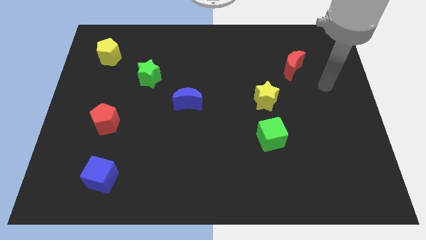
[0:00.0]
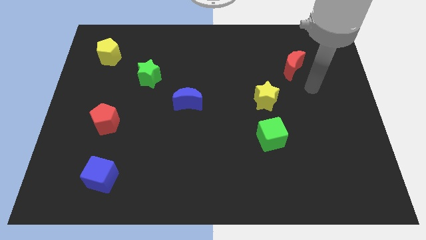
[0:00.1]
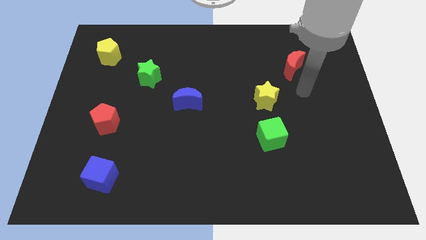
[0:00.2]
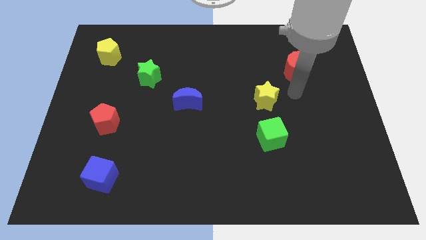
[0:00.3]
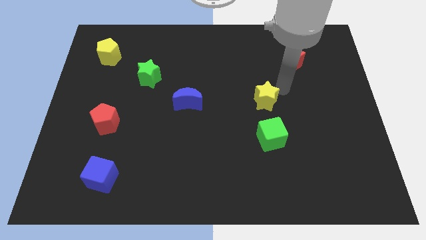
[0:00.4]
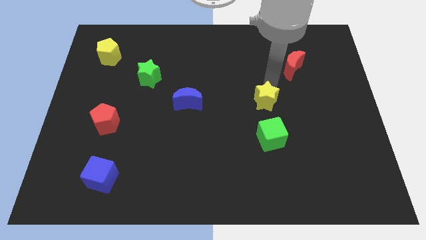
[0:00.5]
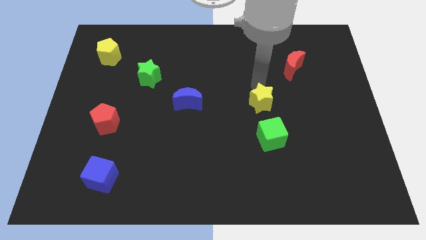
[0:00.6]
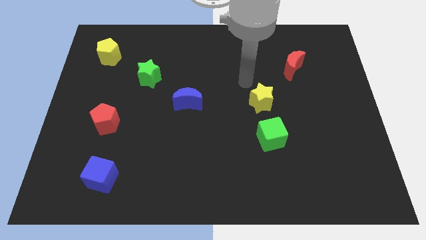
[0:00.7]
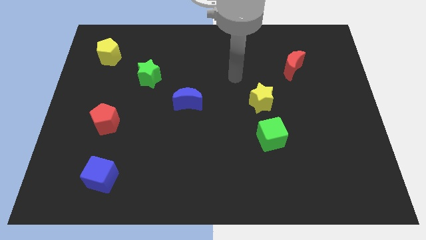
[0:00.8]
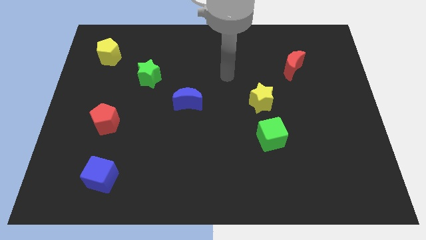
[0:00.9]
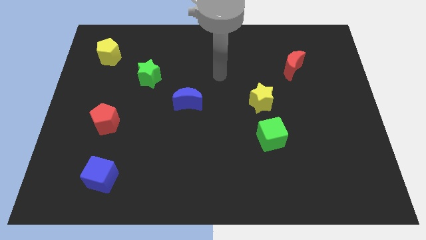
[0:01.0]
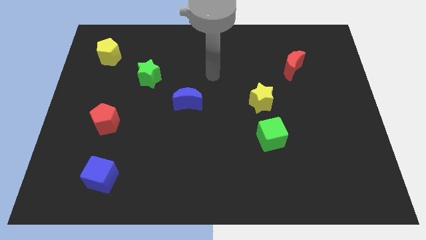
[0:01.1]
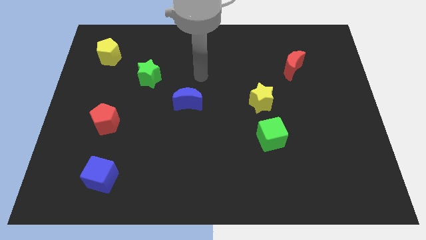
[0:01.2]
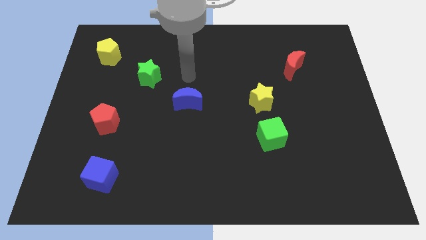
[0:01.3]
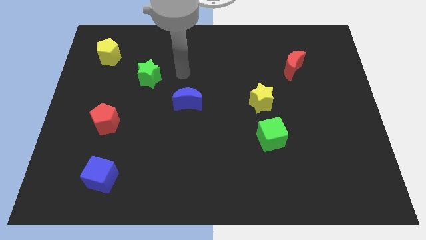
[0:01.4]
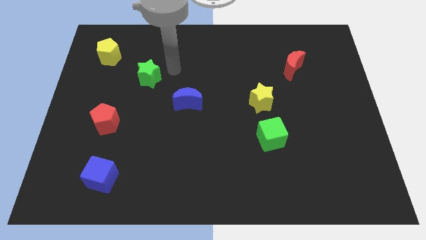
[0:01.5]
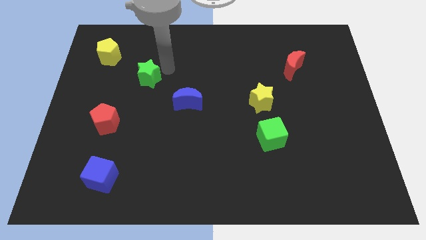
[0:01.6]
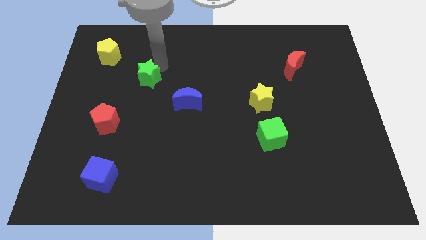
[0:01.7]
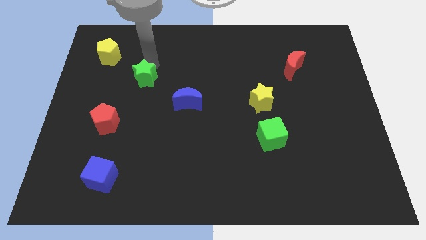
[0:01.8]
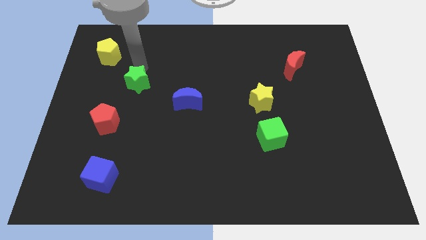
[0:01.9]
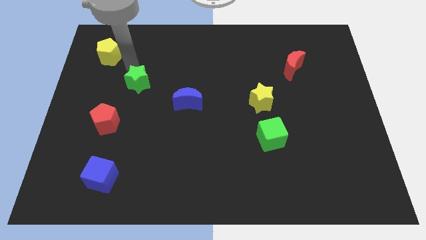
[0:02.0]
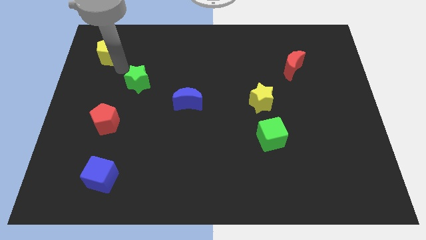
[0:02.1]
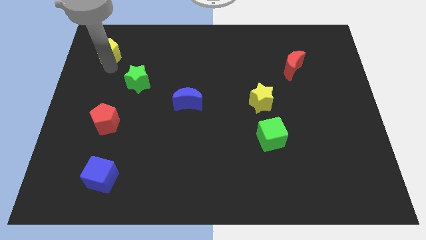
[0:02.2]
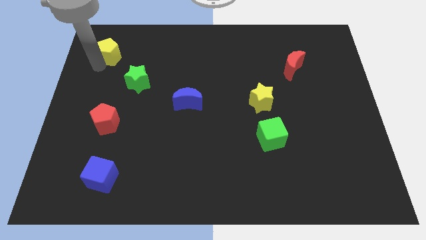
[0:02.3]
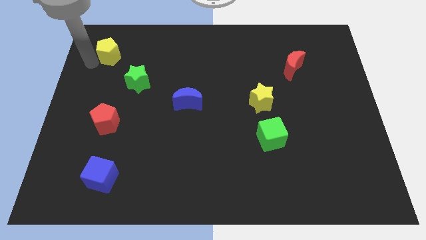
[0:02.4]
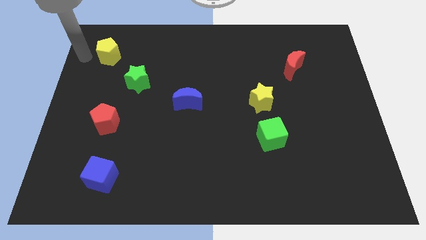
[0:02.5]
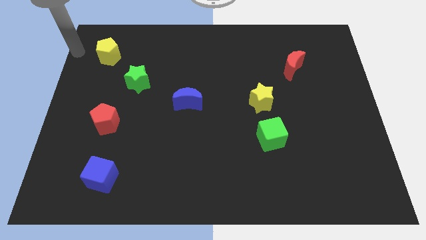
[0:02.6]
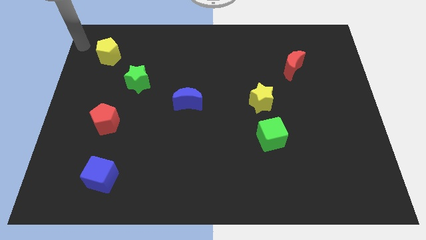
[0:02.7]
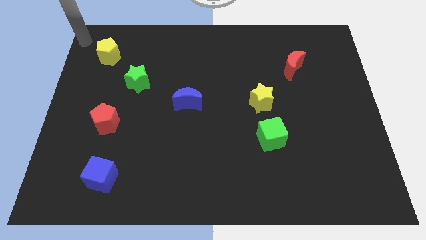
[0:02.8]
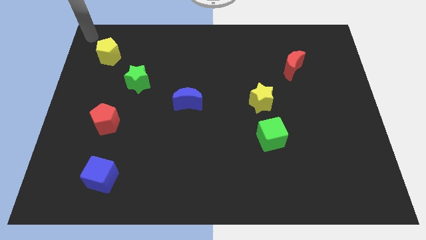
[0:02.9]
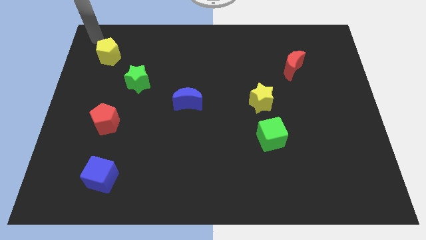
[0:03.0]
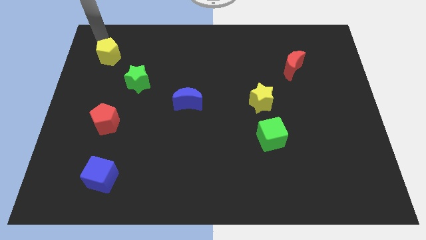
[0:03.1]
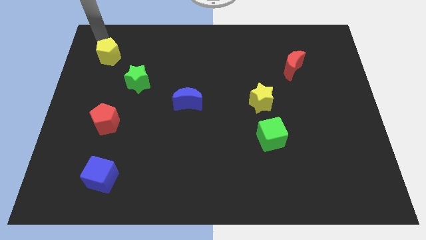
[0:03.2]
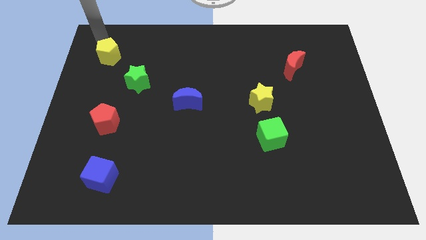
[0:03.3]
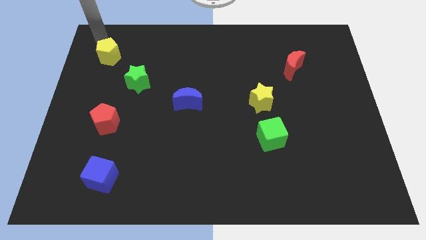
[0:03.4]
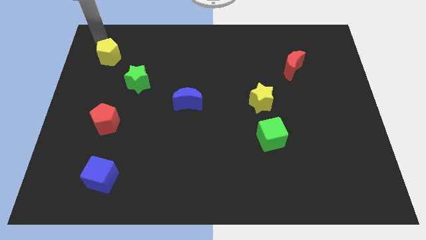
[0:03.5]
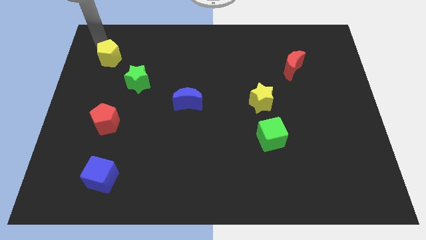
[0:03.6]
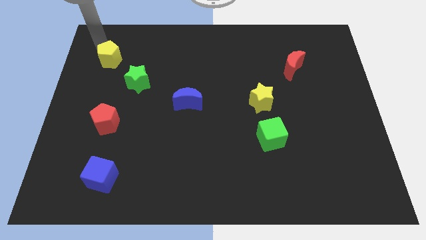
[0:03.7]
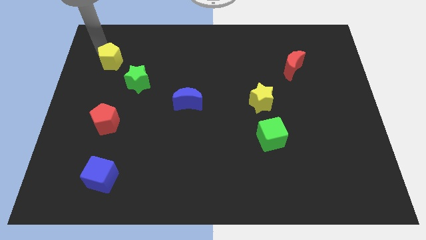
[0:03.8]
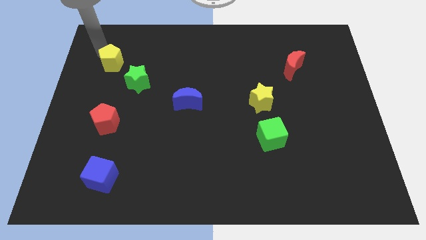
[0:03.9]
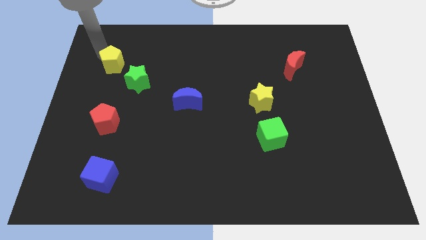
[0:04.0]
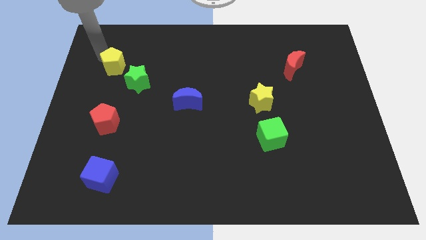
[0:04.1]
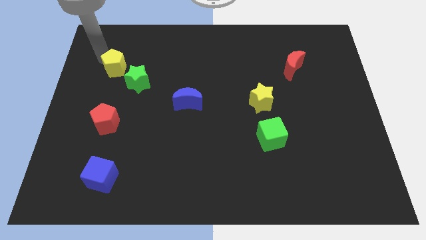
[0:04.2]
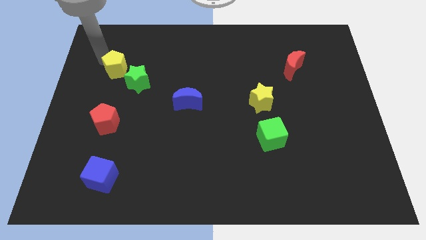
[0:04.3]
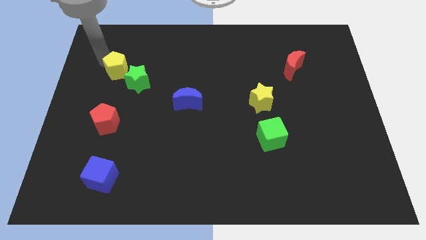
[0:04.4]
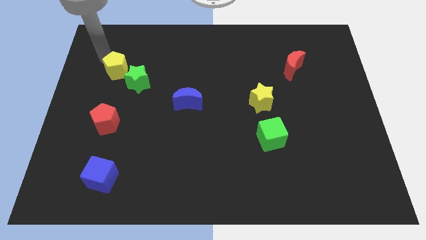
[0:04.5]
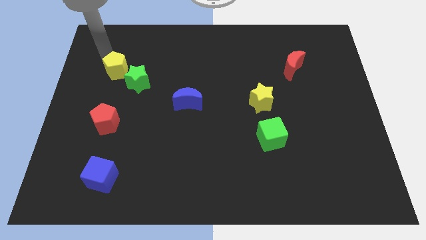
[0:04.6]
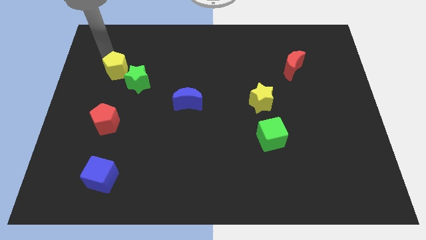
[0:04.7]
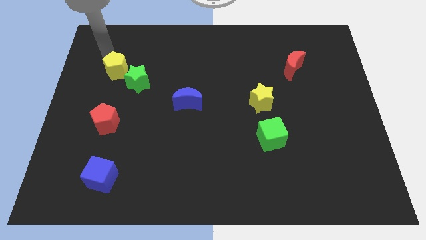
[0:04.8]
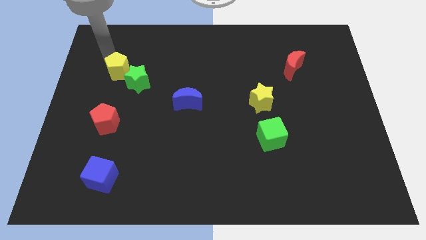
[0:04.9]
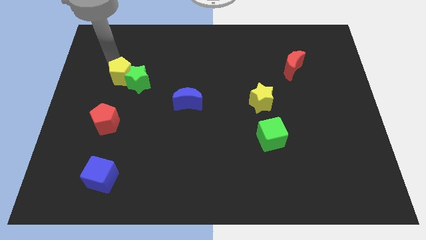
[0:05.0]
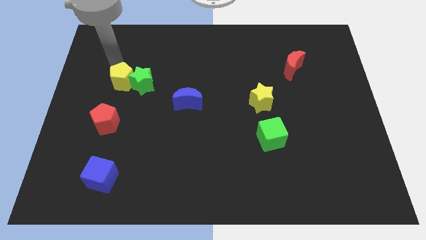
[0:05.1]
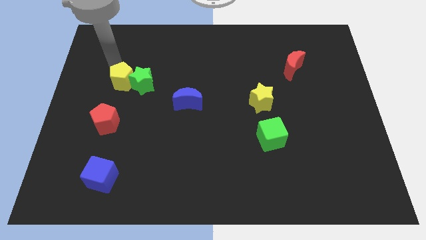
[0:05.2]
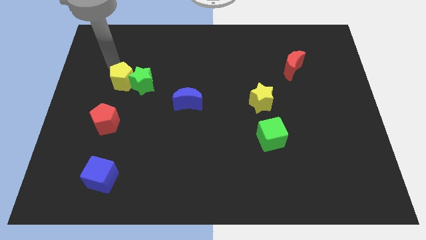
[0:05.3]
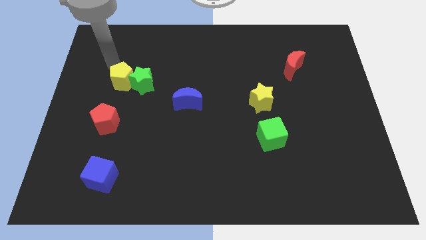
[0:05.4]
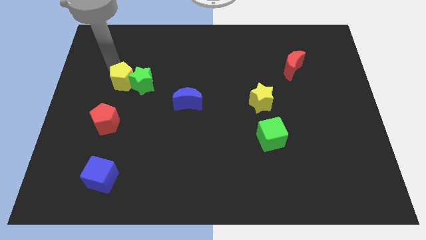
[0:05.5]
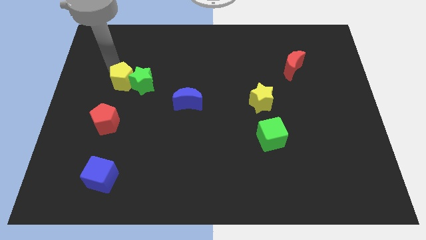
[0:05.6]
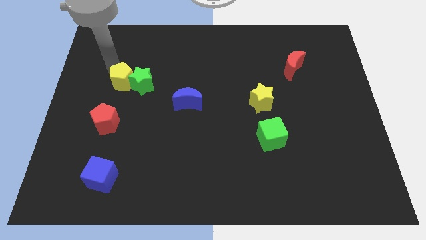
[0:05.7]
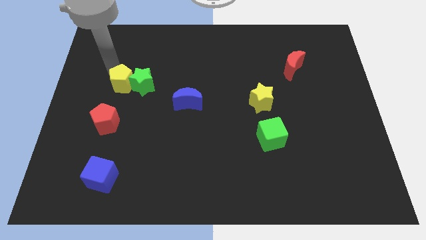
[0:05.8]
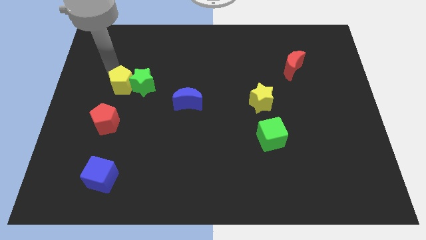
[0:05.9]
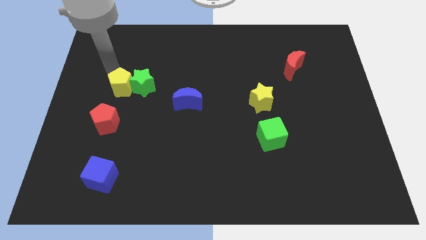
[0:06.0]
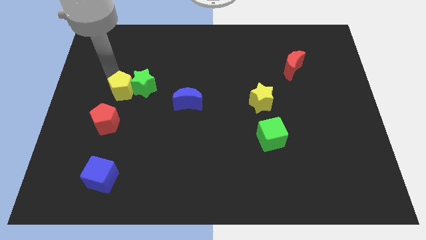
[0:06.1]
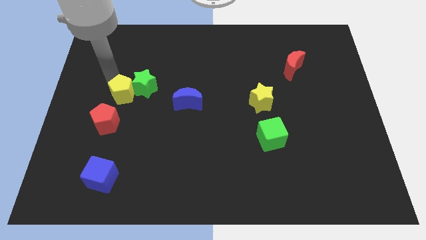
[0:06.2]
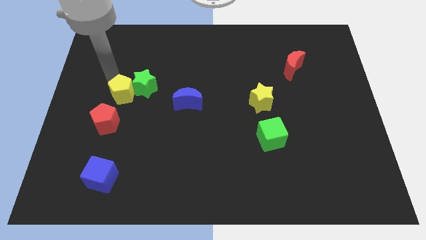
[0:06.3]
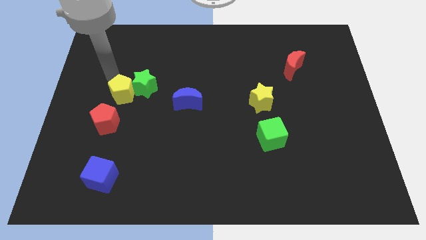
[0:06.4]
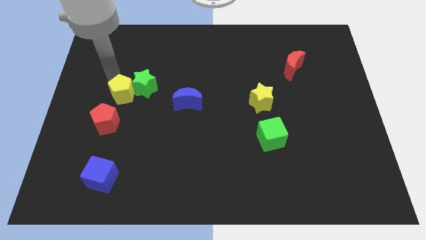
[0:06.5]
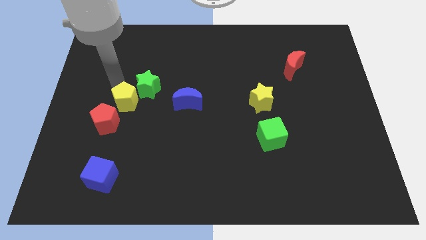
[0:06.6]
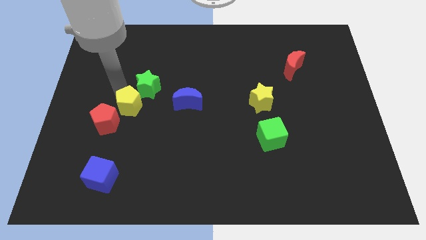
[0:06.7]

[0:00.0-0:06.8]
slide the yellow pentagon to the bottom side of the green star

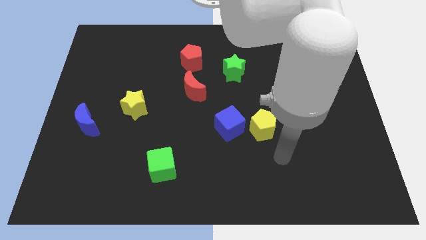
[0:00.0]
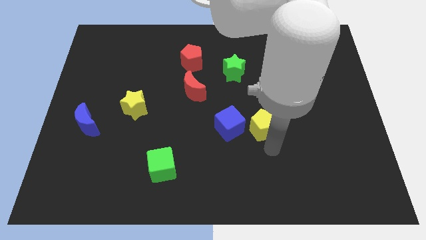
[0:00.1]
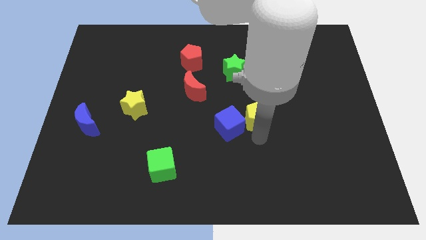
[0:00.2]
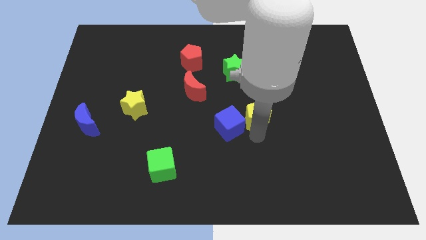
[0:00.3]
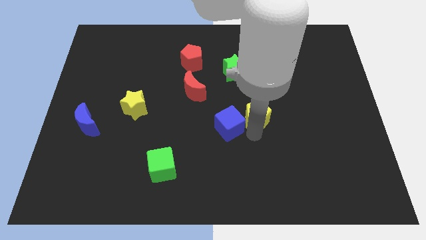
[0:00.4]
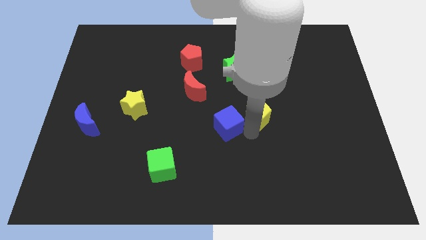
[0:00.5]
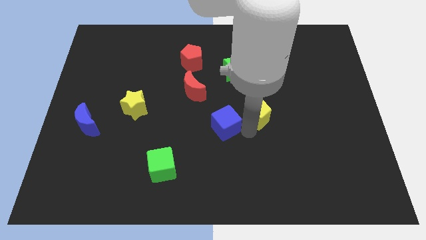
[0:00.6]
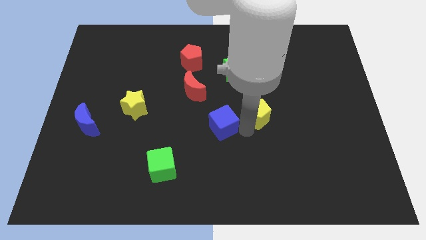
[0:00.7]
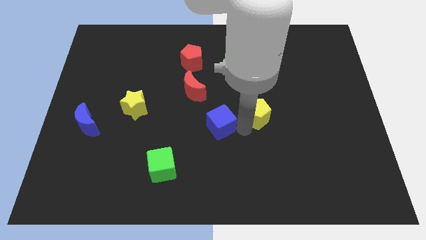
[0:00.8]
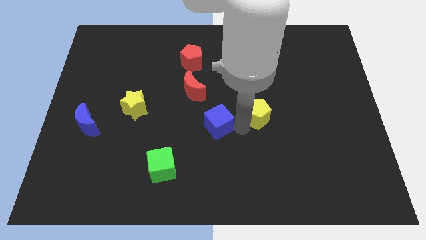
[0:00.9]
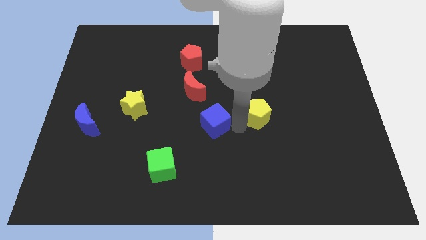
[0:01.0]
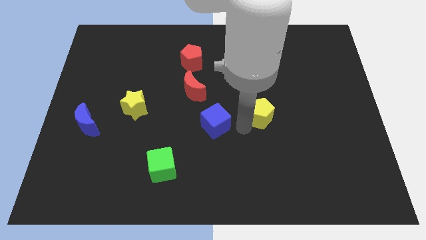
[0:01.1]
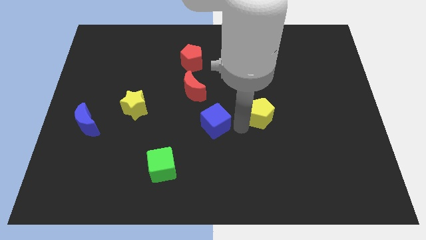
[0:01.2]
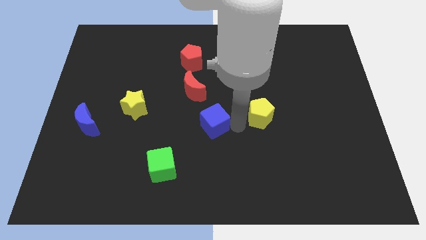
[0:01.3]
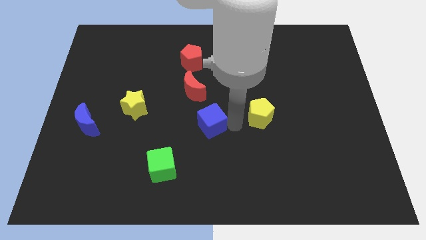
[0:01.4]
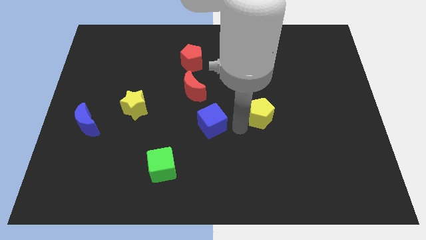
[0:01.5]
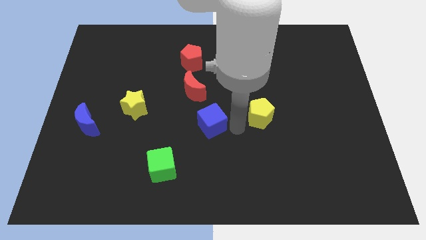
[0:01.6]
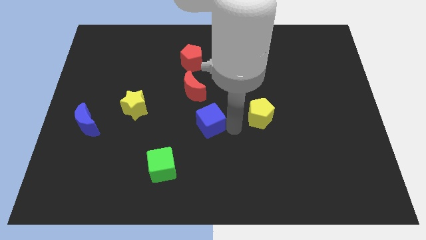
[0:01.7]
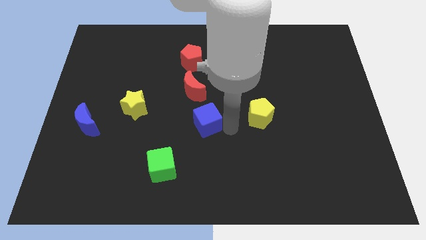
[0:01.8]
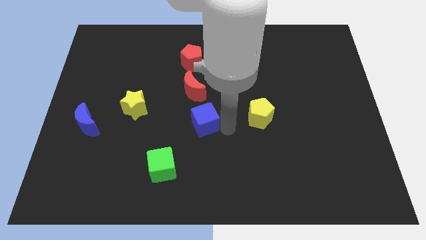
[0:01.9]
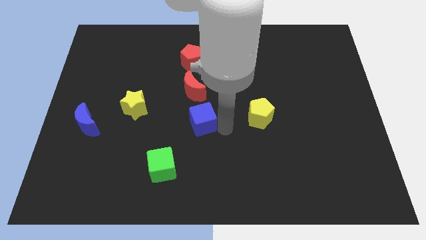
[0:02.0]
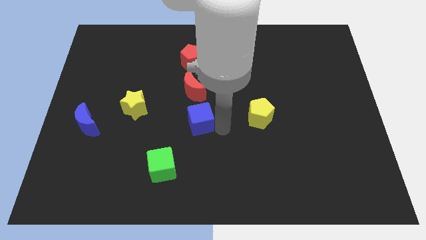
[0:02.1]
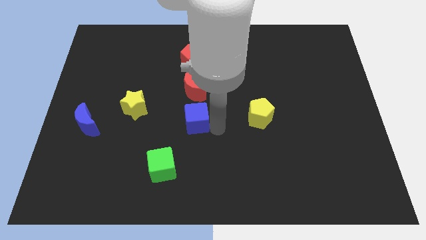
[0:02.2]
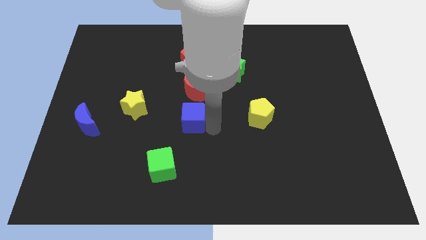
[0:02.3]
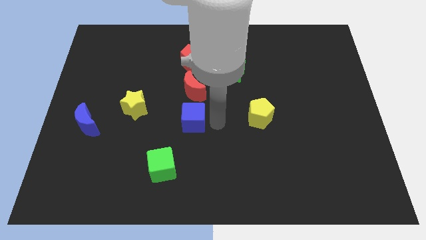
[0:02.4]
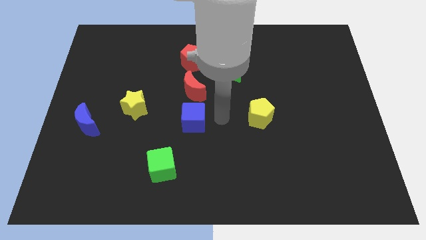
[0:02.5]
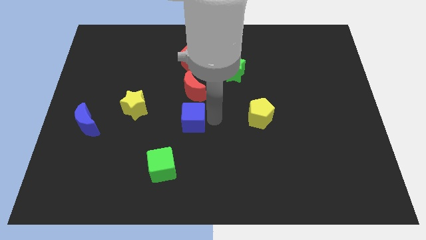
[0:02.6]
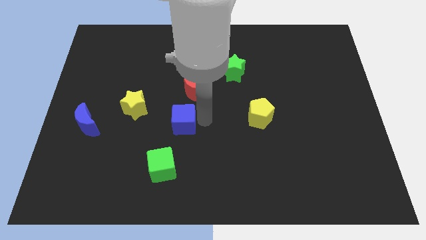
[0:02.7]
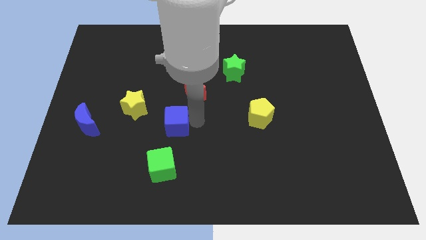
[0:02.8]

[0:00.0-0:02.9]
push the blue cube diagonally down and to the right of the yellow star
